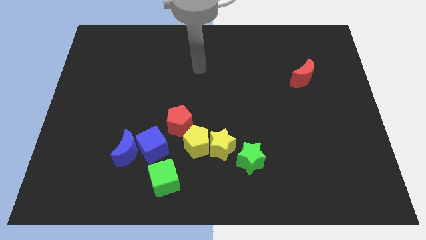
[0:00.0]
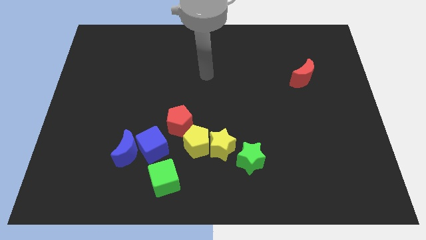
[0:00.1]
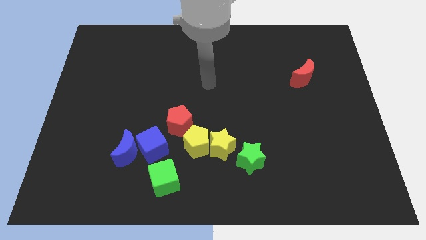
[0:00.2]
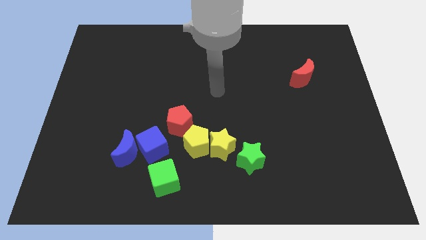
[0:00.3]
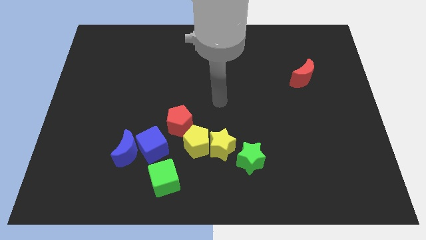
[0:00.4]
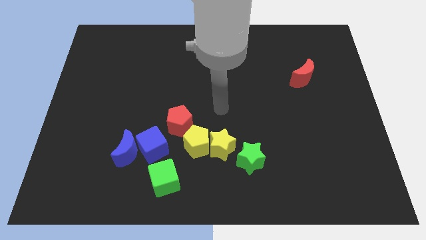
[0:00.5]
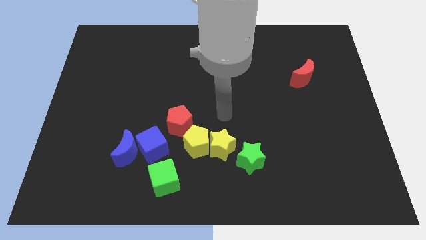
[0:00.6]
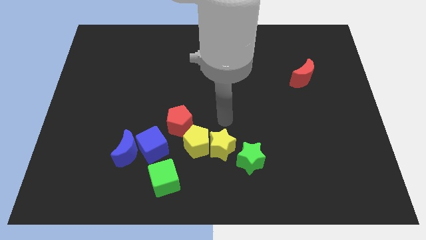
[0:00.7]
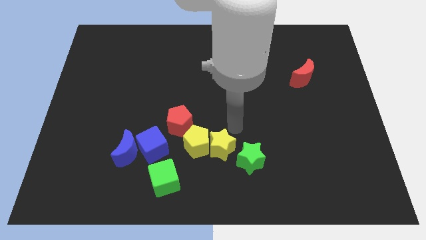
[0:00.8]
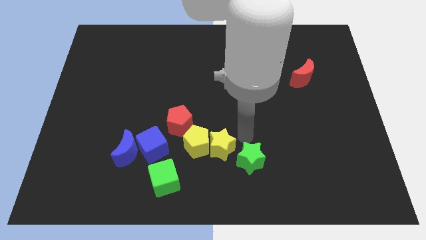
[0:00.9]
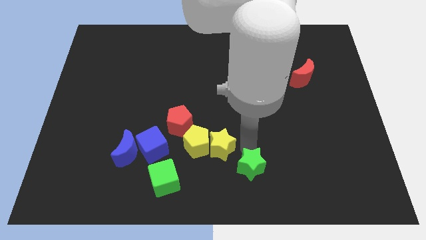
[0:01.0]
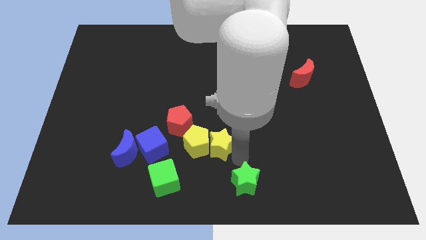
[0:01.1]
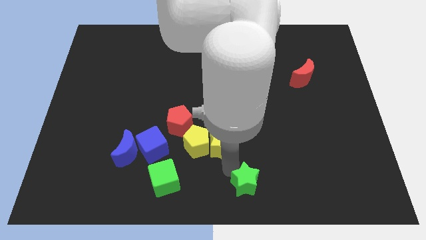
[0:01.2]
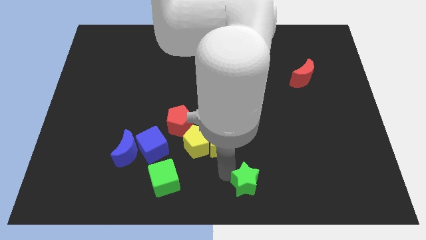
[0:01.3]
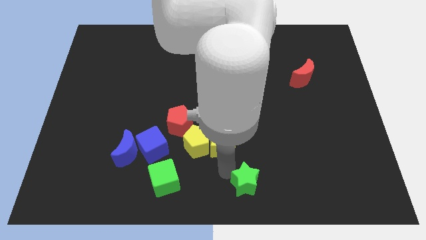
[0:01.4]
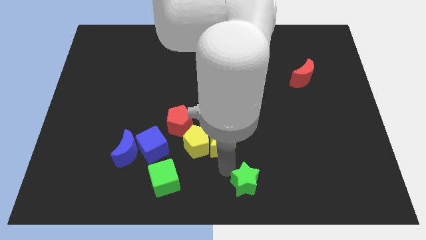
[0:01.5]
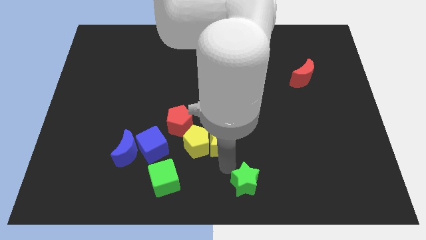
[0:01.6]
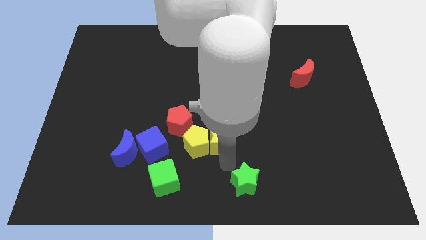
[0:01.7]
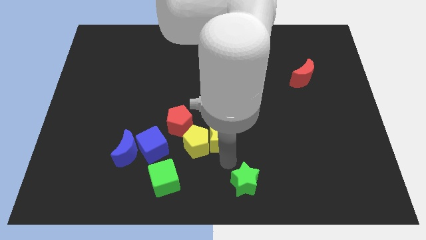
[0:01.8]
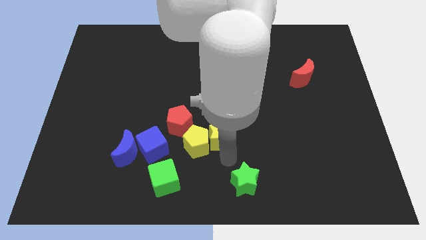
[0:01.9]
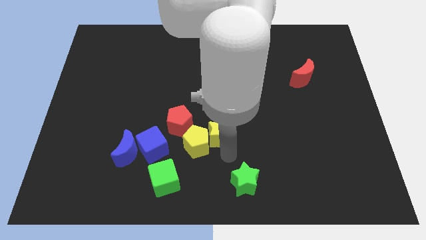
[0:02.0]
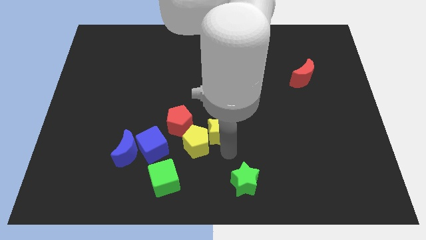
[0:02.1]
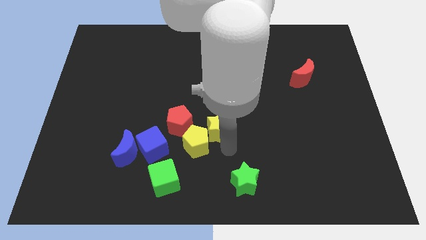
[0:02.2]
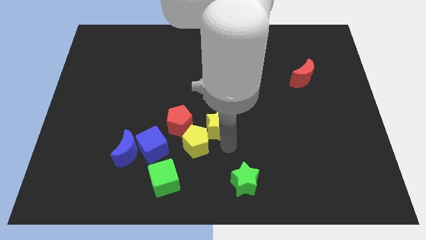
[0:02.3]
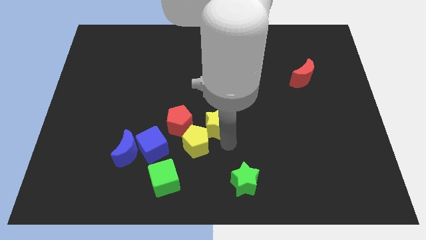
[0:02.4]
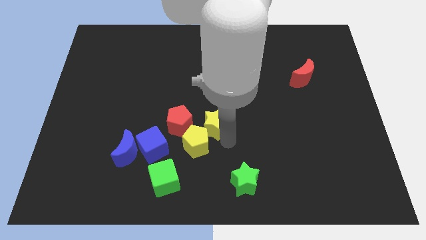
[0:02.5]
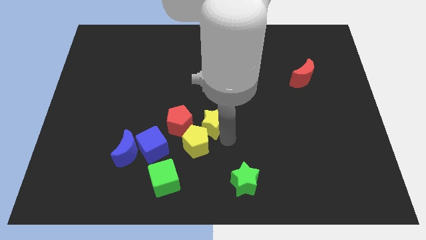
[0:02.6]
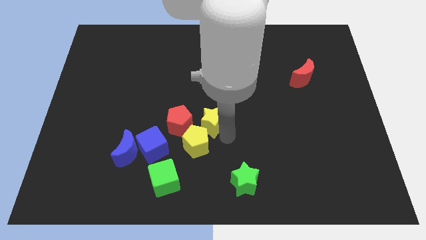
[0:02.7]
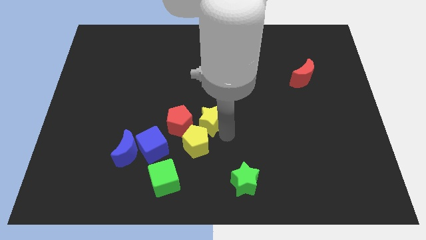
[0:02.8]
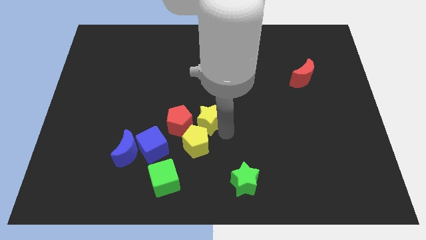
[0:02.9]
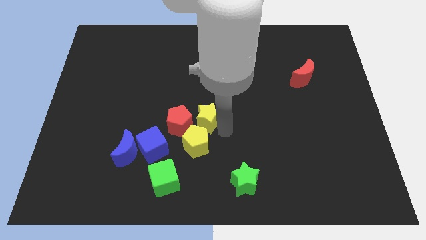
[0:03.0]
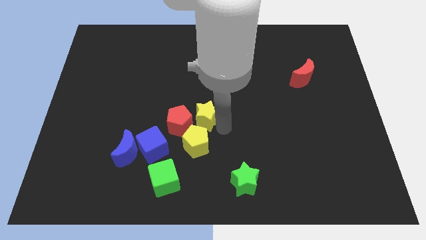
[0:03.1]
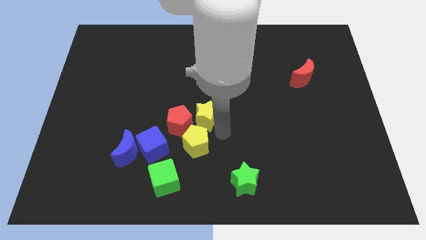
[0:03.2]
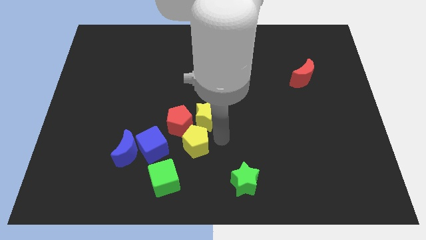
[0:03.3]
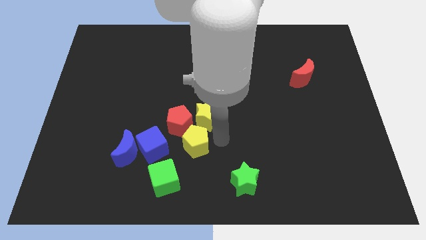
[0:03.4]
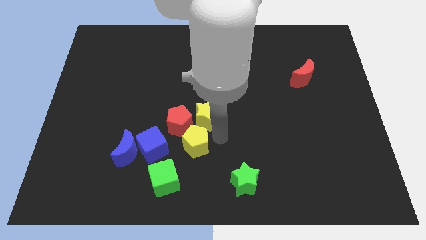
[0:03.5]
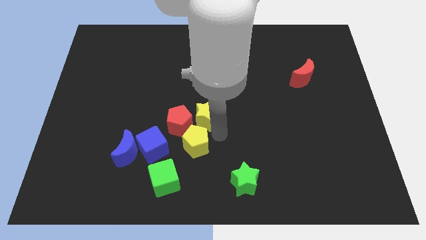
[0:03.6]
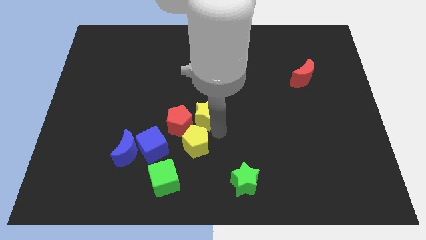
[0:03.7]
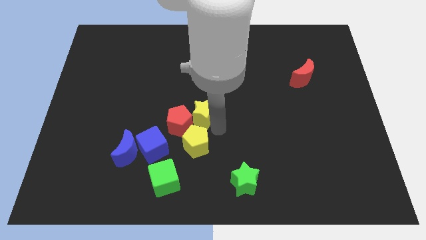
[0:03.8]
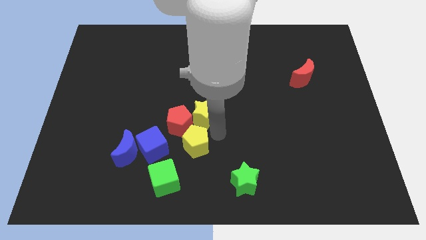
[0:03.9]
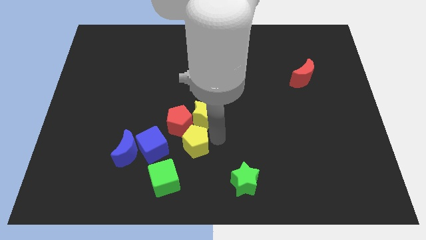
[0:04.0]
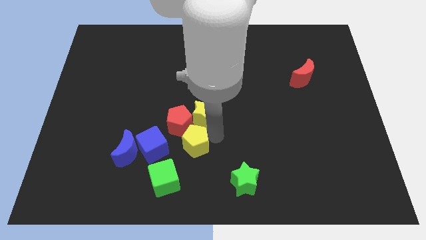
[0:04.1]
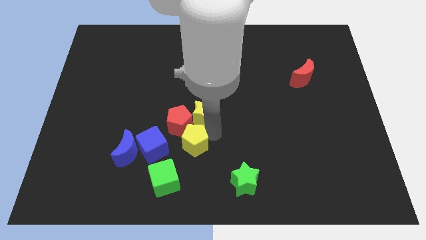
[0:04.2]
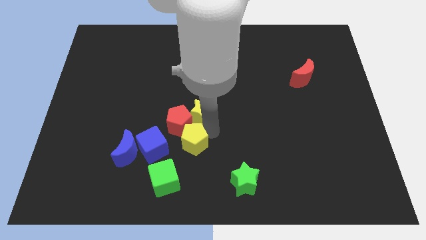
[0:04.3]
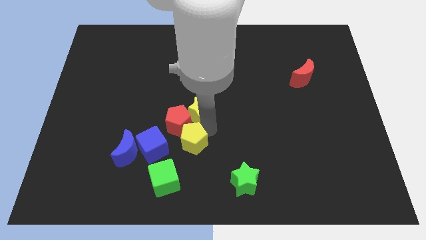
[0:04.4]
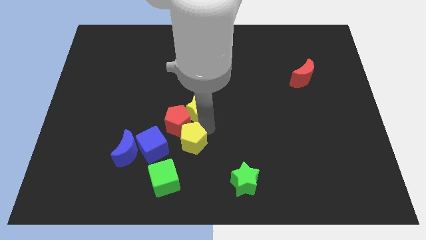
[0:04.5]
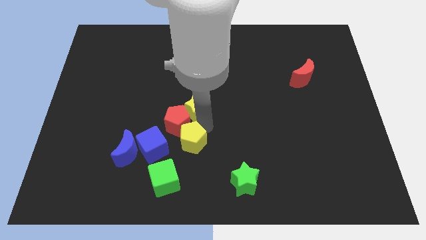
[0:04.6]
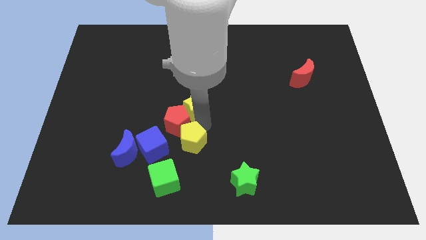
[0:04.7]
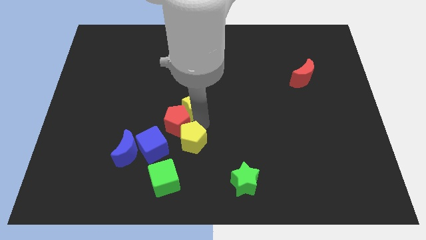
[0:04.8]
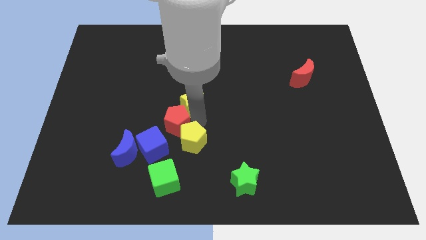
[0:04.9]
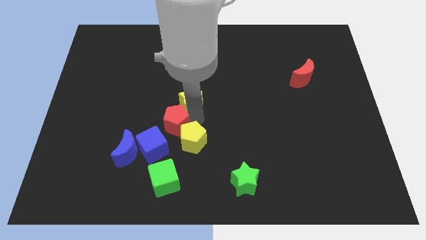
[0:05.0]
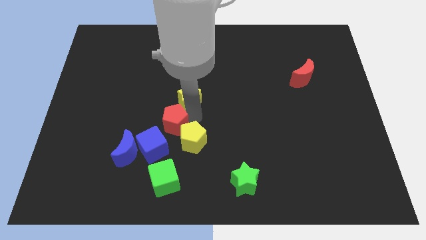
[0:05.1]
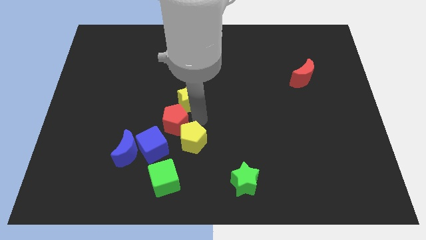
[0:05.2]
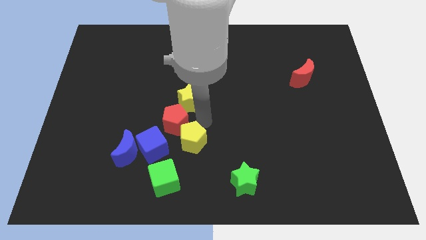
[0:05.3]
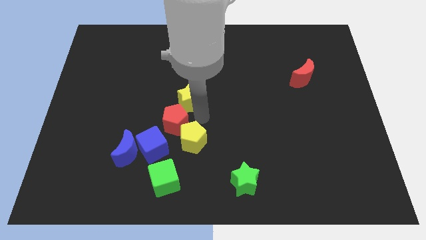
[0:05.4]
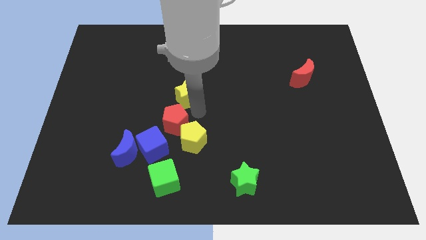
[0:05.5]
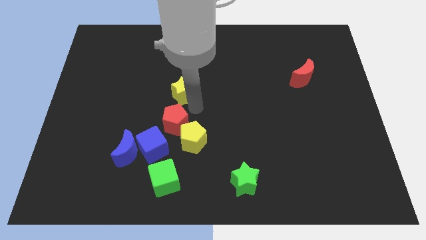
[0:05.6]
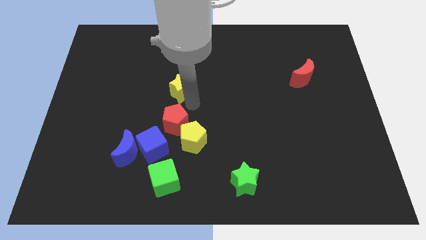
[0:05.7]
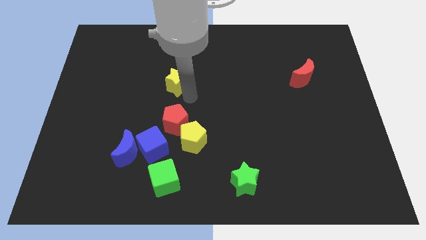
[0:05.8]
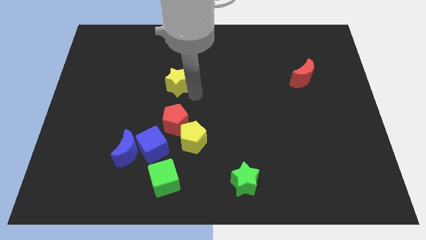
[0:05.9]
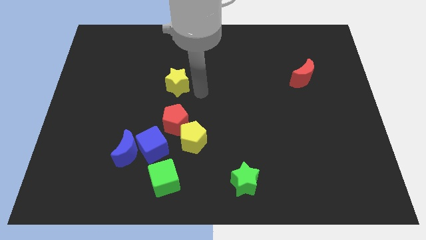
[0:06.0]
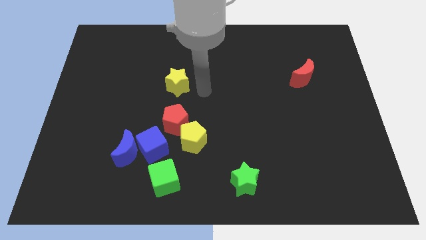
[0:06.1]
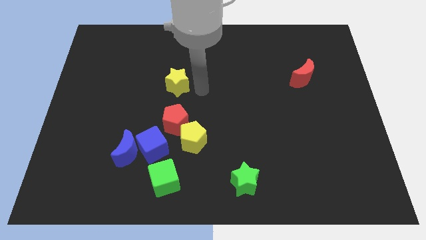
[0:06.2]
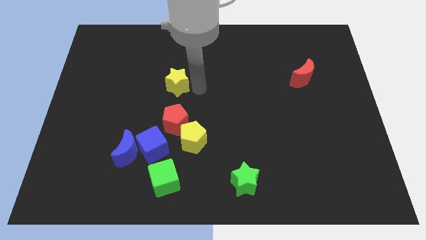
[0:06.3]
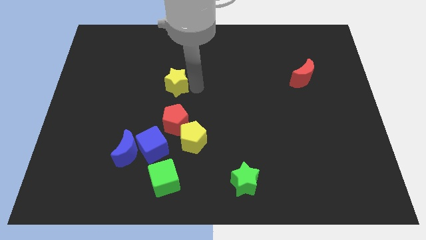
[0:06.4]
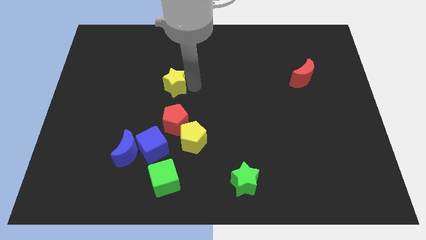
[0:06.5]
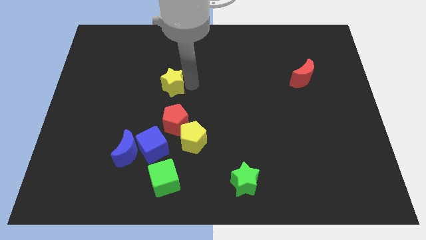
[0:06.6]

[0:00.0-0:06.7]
push the yellow star upwards and then left

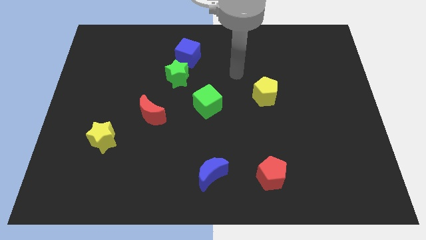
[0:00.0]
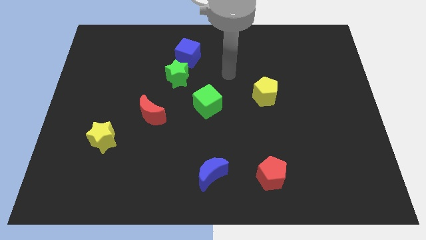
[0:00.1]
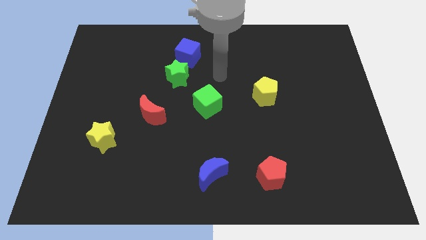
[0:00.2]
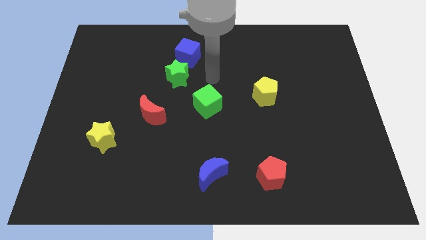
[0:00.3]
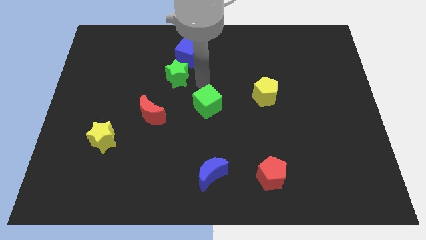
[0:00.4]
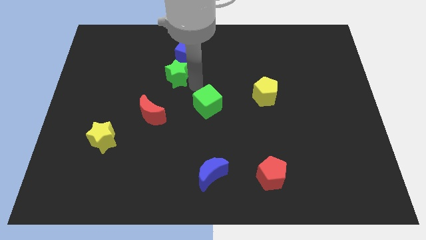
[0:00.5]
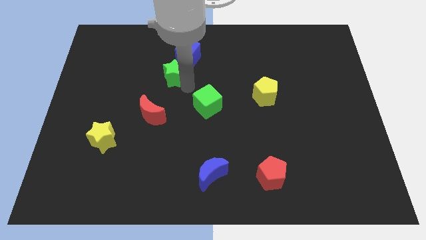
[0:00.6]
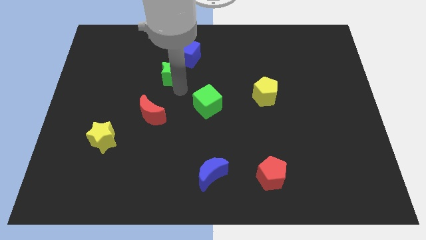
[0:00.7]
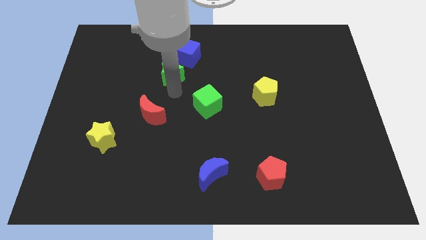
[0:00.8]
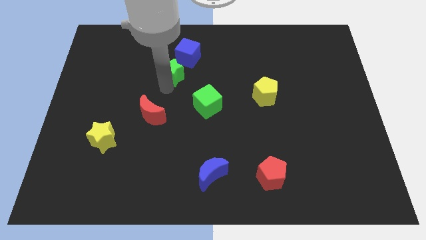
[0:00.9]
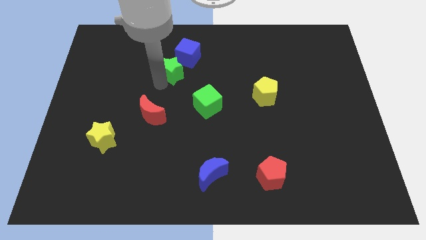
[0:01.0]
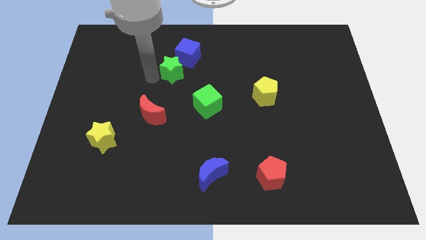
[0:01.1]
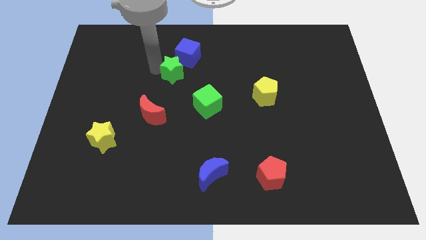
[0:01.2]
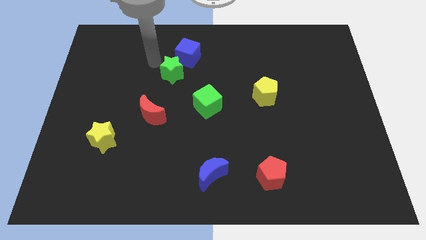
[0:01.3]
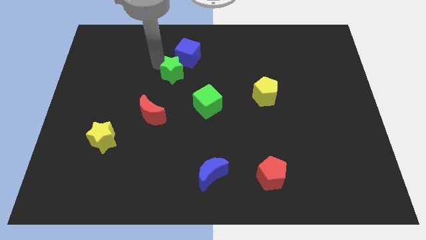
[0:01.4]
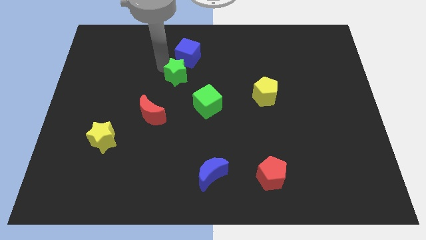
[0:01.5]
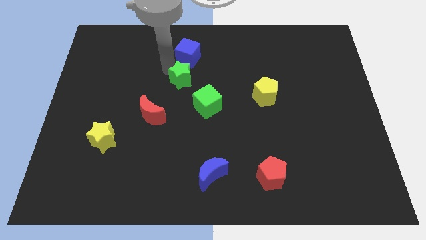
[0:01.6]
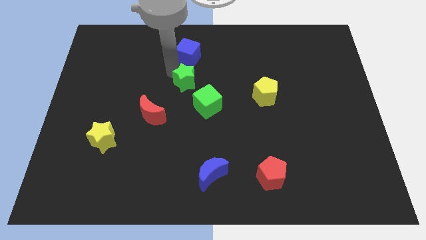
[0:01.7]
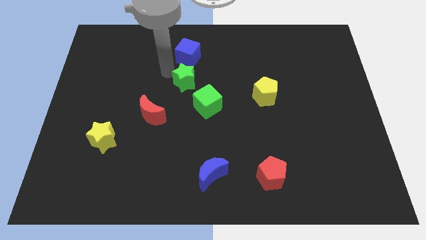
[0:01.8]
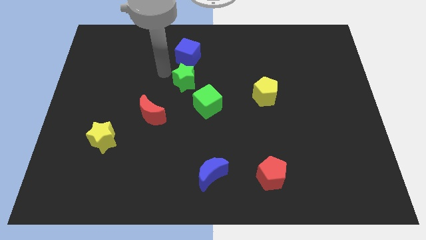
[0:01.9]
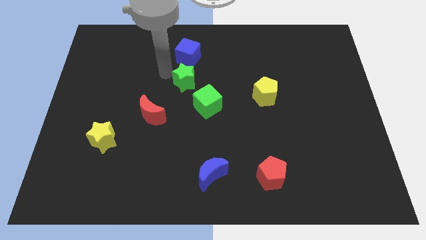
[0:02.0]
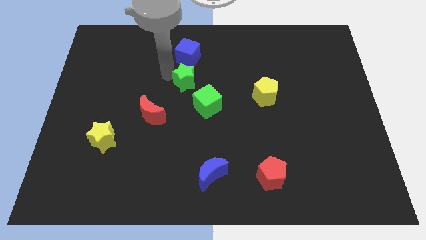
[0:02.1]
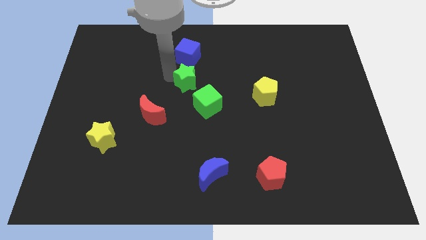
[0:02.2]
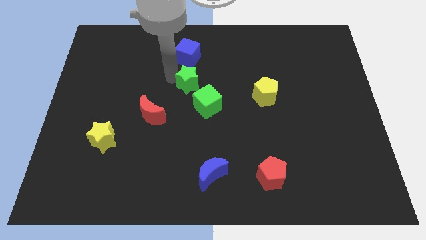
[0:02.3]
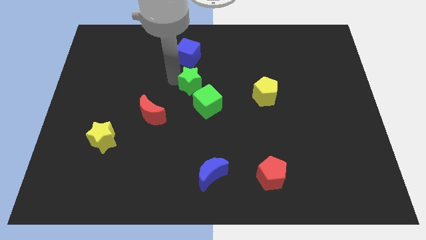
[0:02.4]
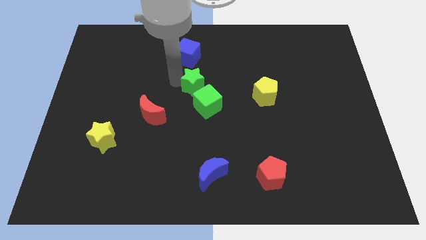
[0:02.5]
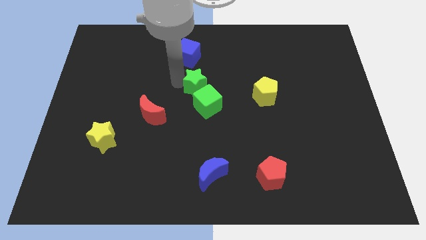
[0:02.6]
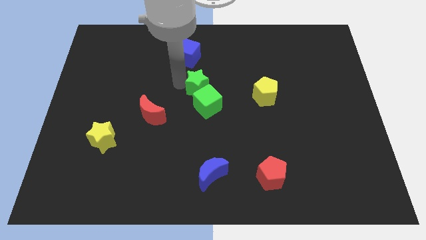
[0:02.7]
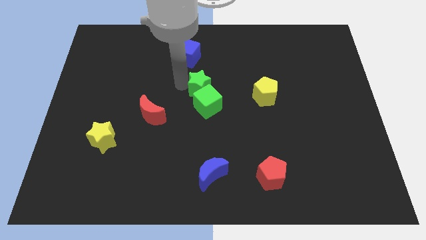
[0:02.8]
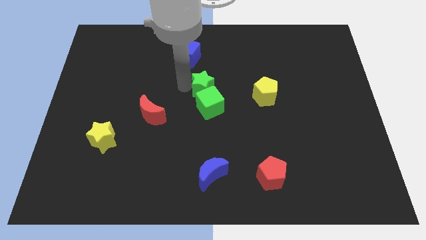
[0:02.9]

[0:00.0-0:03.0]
slightly slide the green star downwards and right diagonally
